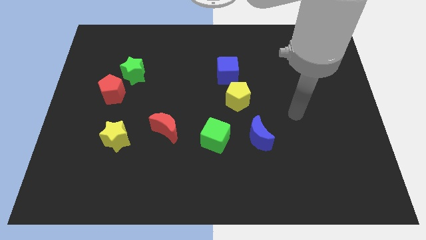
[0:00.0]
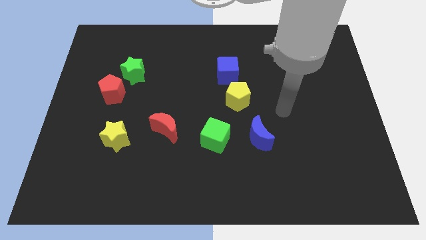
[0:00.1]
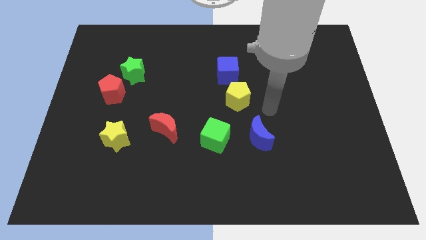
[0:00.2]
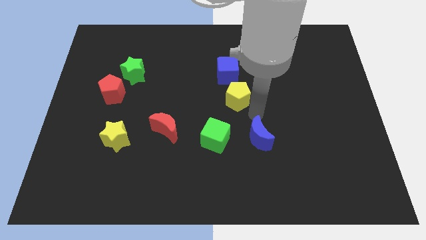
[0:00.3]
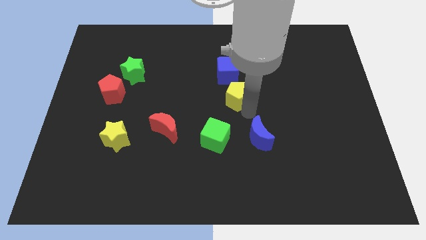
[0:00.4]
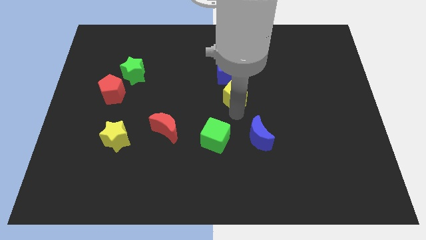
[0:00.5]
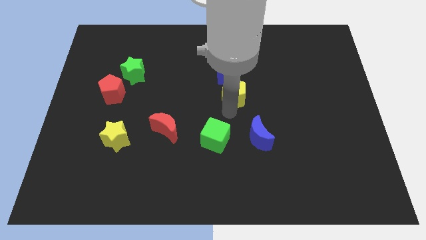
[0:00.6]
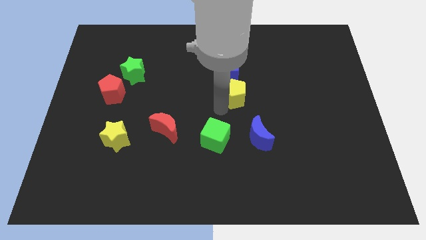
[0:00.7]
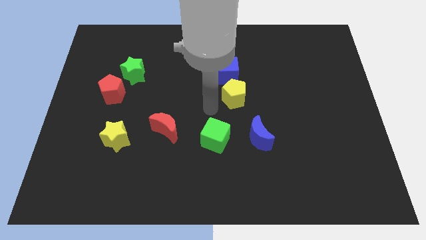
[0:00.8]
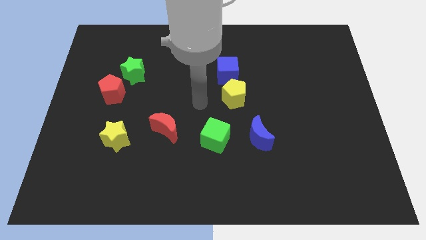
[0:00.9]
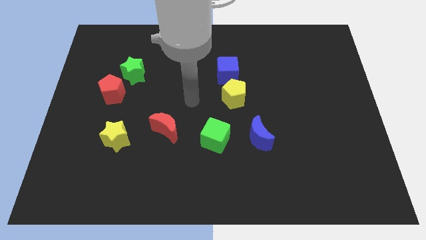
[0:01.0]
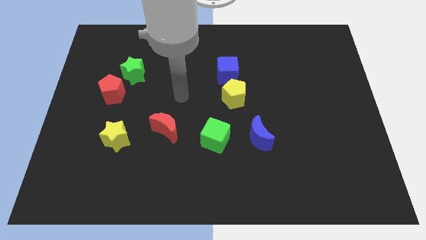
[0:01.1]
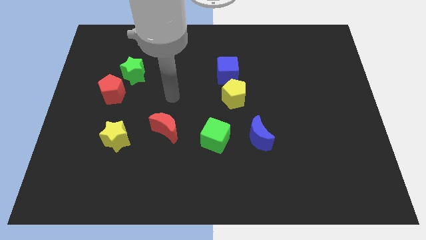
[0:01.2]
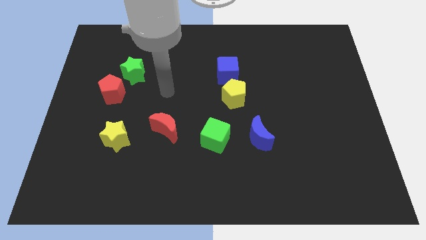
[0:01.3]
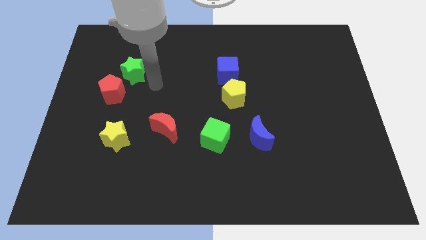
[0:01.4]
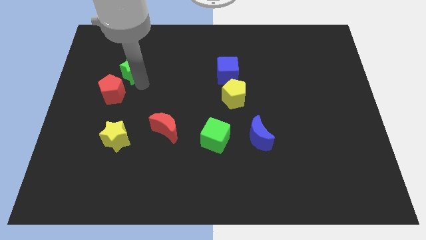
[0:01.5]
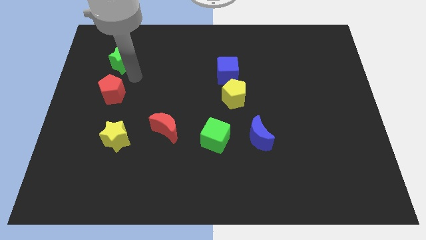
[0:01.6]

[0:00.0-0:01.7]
pull the red pentagon apart from the green star

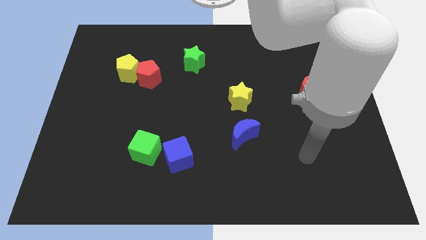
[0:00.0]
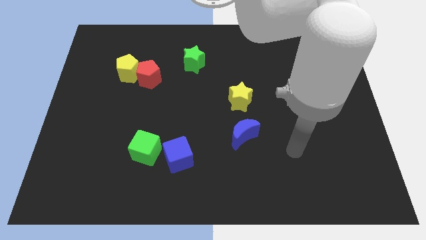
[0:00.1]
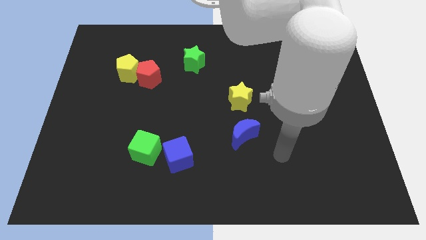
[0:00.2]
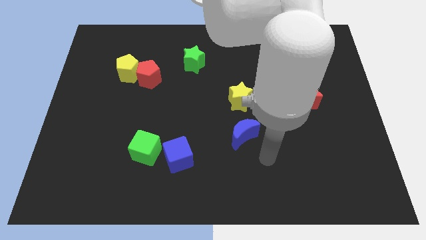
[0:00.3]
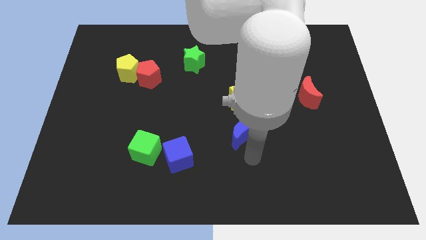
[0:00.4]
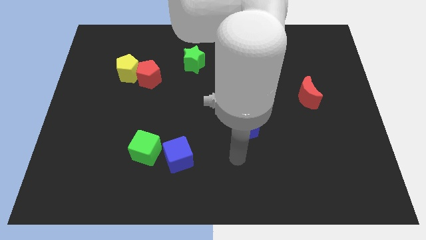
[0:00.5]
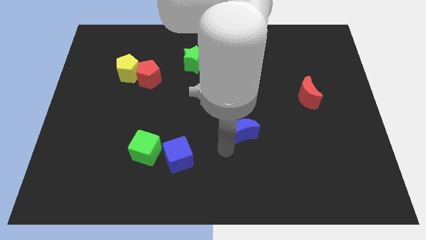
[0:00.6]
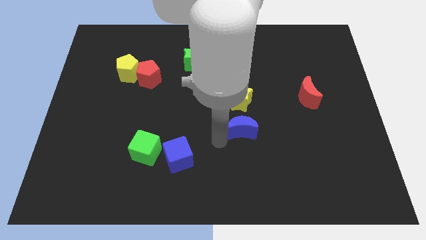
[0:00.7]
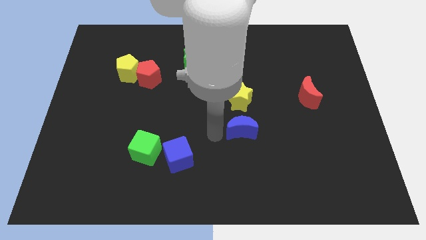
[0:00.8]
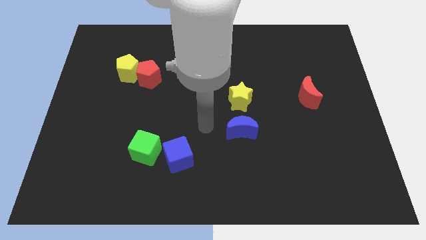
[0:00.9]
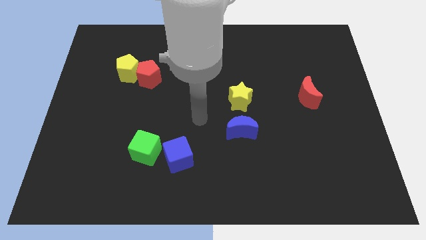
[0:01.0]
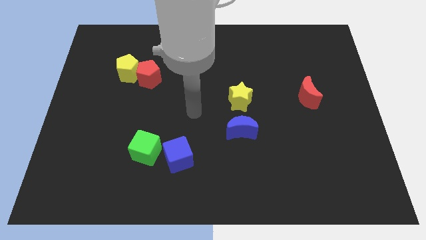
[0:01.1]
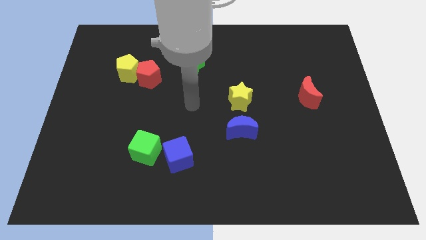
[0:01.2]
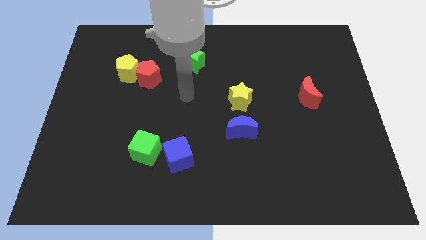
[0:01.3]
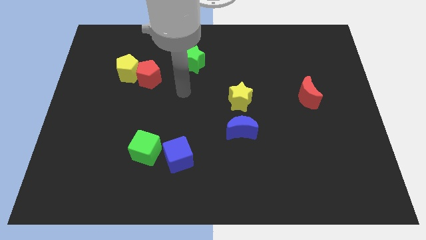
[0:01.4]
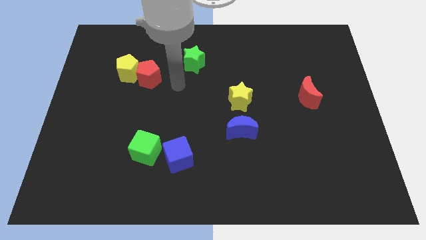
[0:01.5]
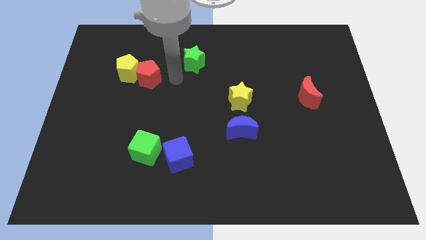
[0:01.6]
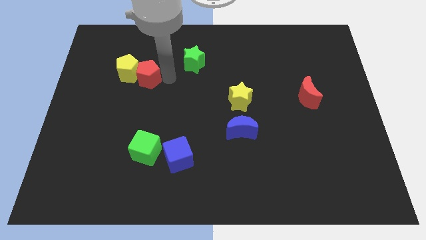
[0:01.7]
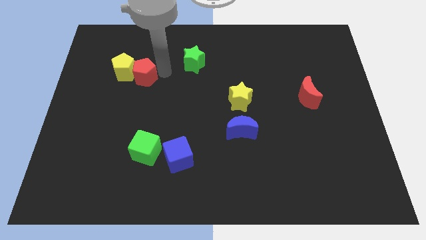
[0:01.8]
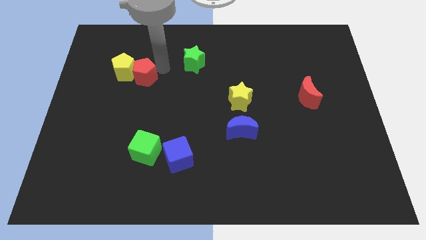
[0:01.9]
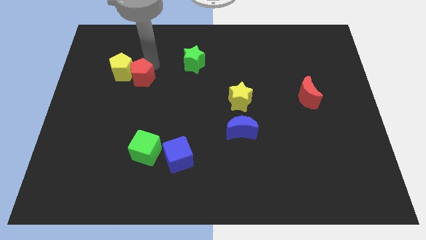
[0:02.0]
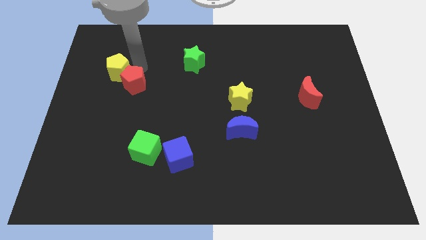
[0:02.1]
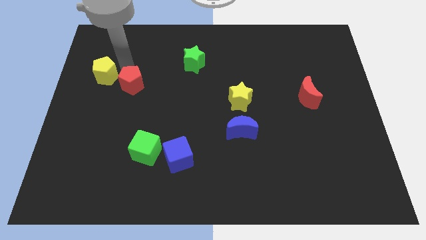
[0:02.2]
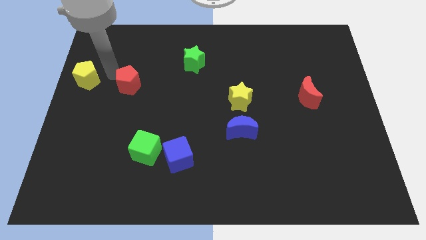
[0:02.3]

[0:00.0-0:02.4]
move the red pentagon away from the yellow pentagon

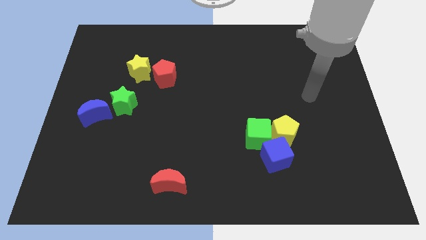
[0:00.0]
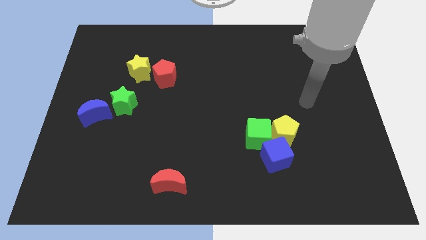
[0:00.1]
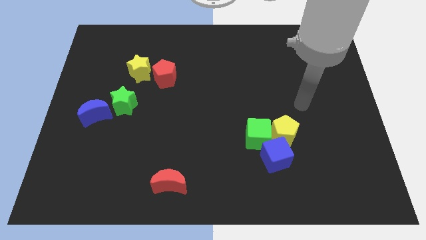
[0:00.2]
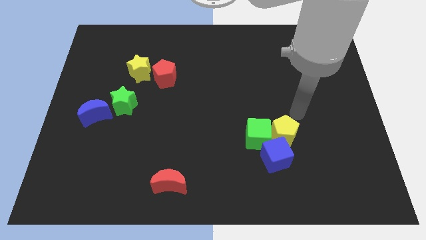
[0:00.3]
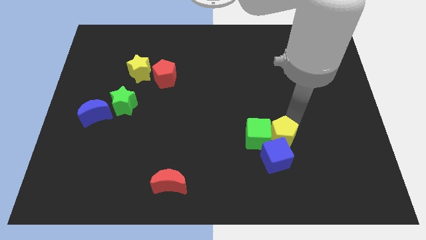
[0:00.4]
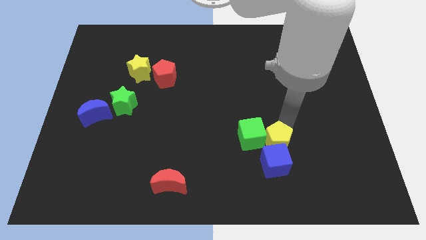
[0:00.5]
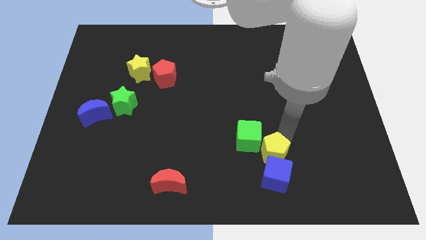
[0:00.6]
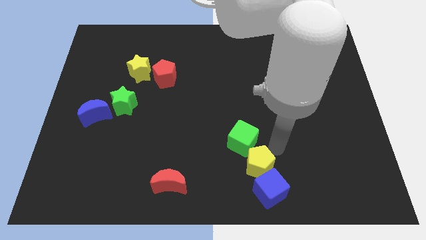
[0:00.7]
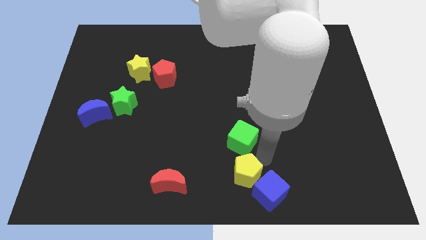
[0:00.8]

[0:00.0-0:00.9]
separate the green cube from the yellow pentagon and blue cube

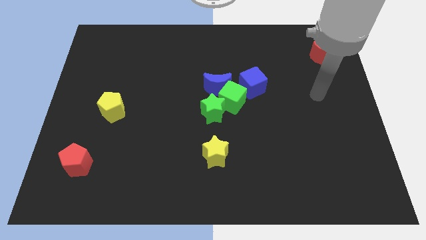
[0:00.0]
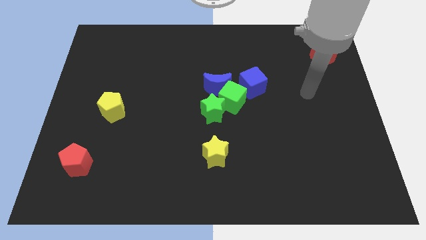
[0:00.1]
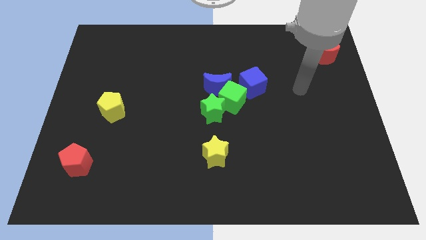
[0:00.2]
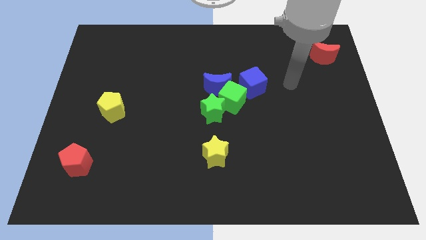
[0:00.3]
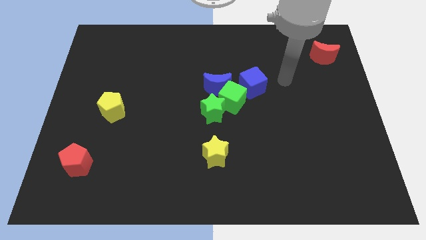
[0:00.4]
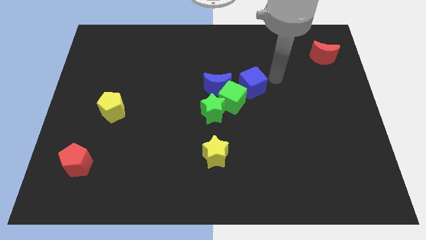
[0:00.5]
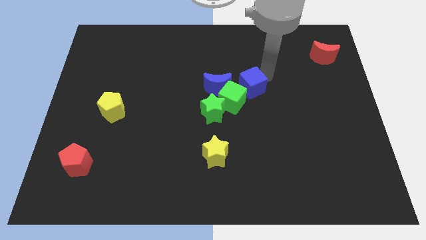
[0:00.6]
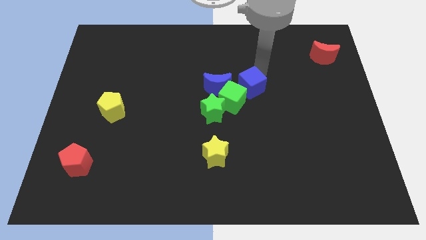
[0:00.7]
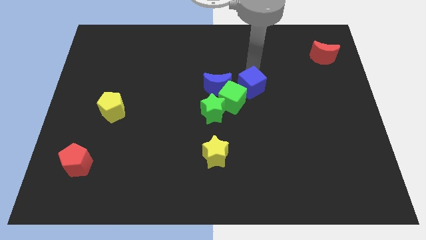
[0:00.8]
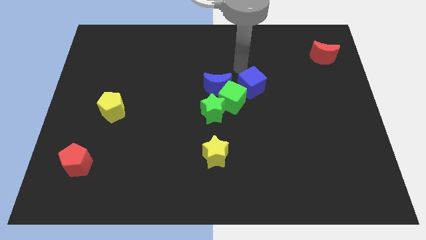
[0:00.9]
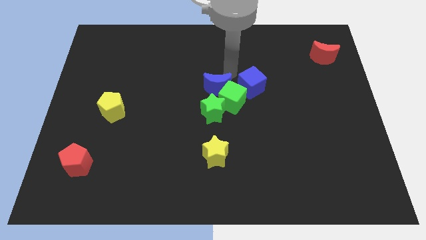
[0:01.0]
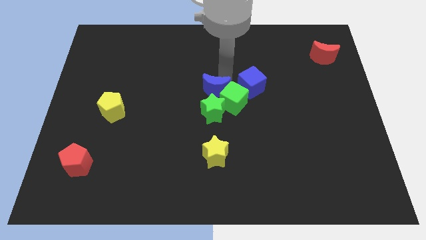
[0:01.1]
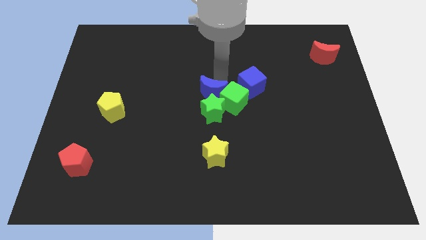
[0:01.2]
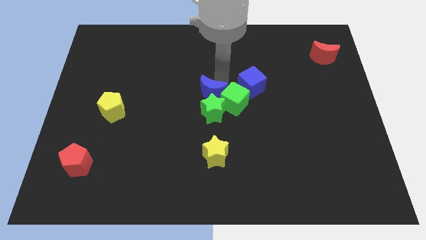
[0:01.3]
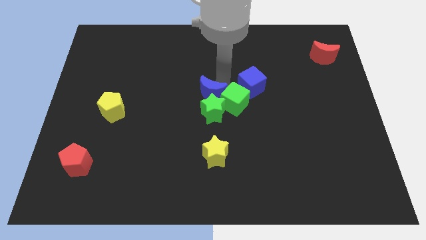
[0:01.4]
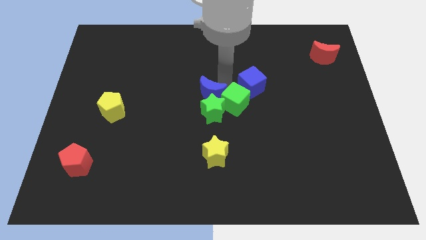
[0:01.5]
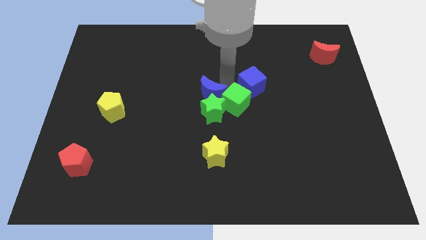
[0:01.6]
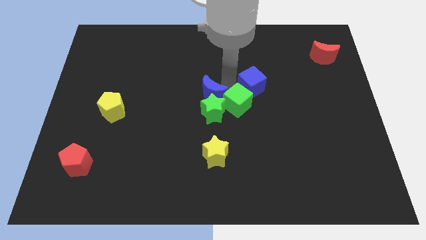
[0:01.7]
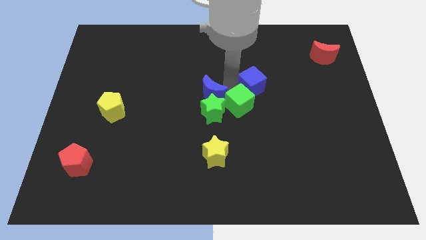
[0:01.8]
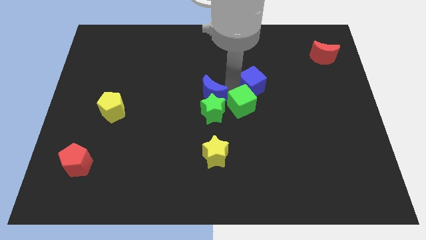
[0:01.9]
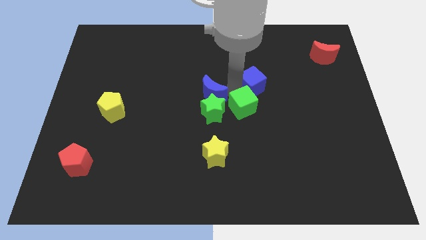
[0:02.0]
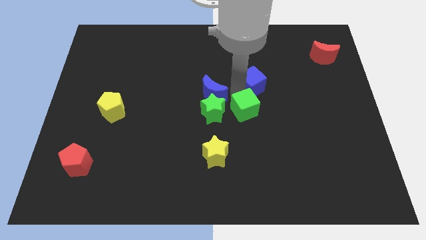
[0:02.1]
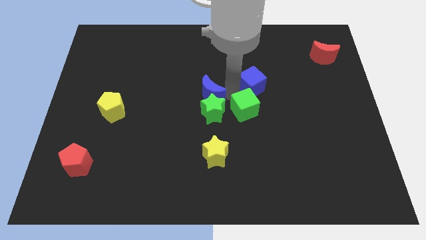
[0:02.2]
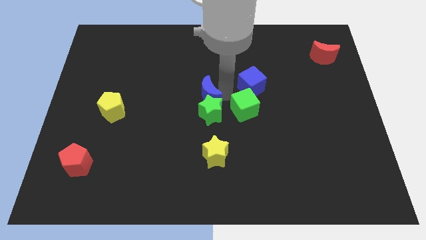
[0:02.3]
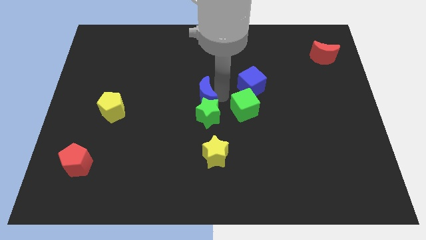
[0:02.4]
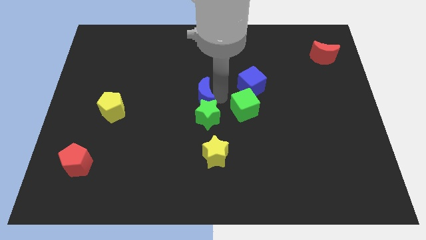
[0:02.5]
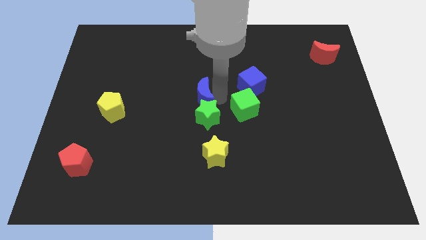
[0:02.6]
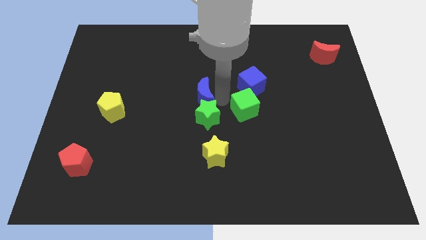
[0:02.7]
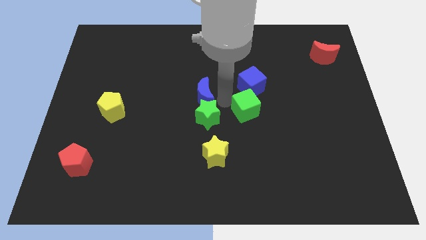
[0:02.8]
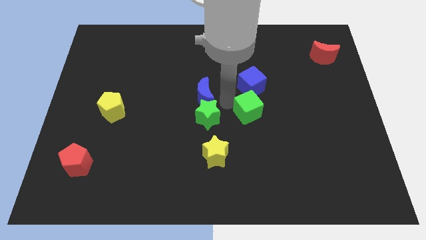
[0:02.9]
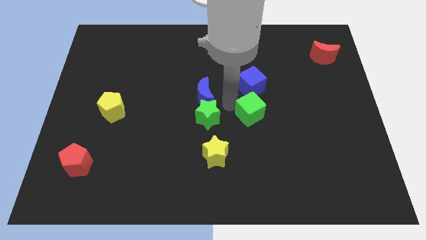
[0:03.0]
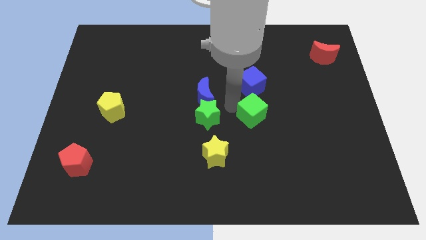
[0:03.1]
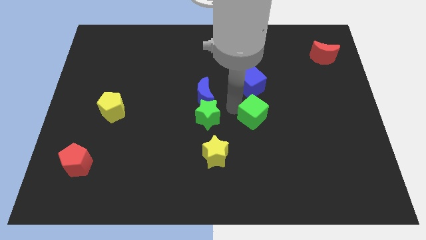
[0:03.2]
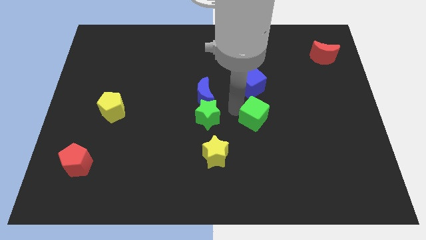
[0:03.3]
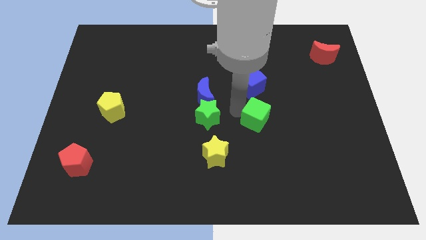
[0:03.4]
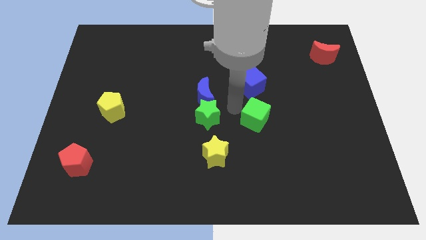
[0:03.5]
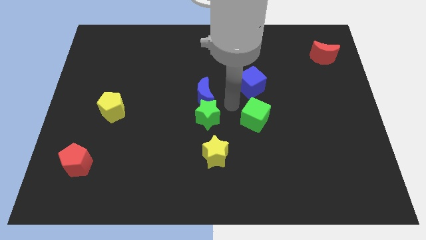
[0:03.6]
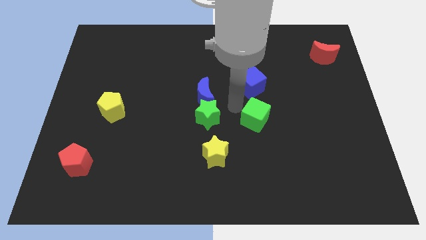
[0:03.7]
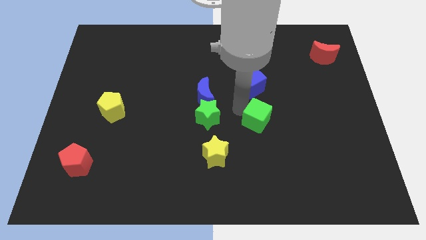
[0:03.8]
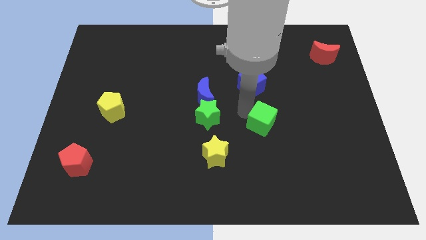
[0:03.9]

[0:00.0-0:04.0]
pull the green cube apart from the clump

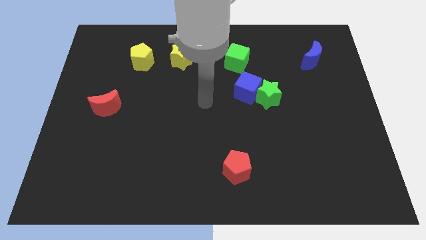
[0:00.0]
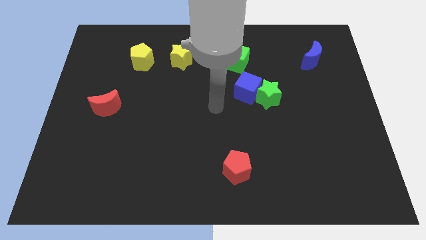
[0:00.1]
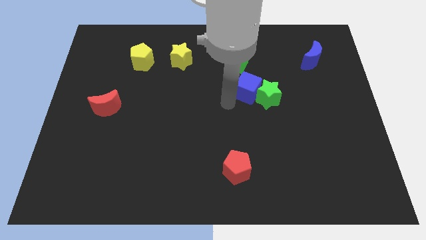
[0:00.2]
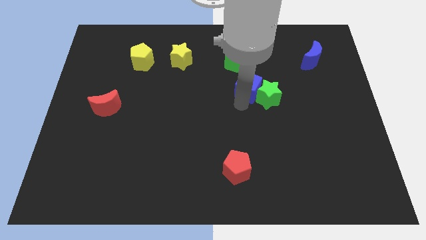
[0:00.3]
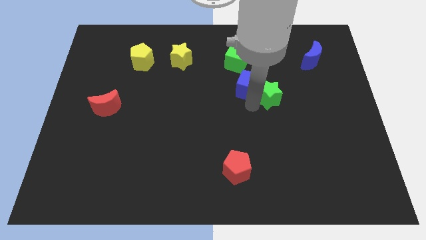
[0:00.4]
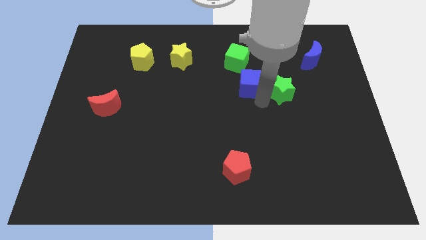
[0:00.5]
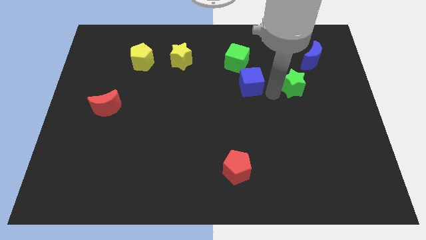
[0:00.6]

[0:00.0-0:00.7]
separate the blue cube from the green star
